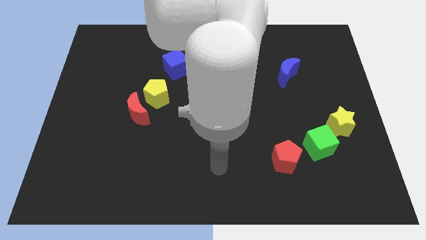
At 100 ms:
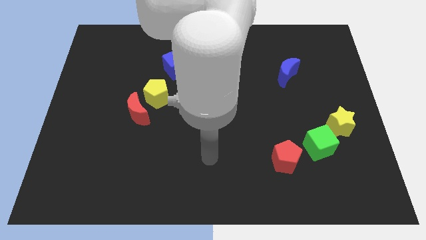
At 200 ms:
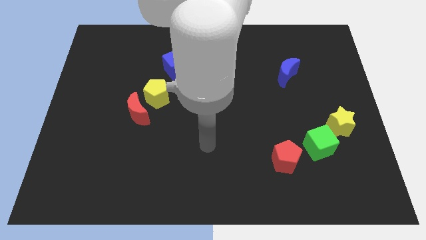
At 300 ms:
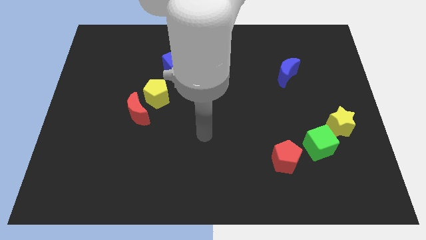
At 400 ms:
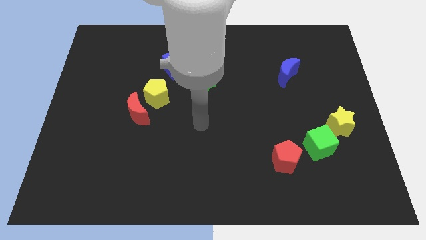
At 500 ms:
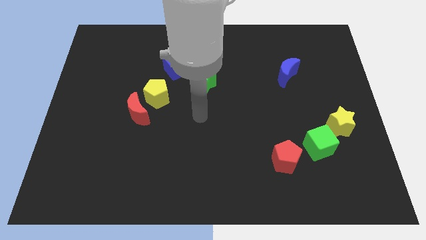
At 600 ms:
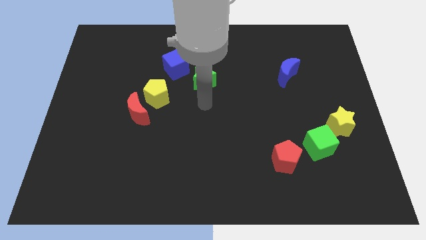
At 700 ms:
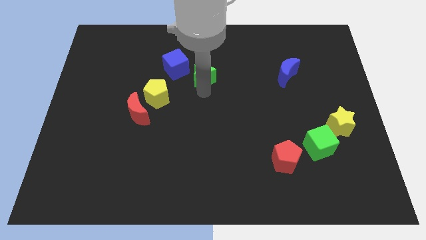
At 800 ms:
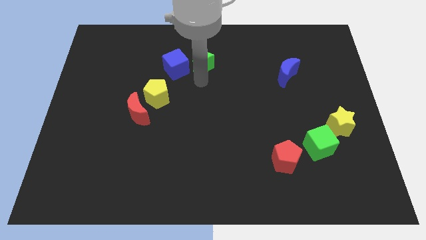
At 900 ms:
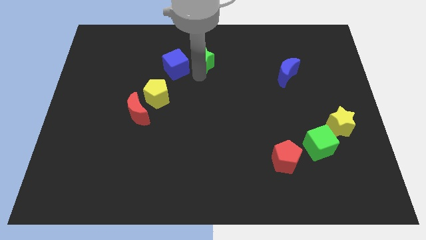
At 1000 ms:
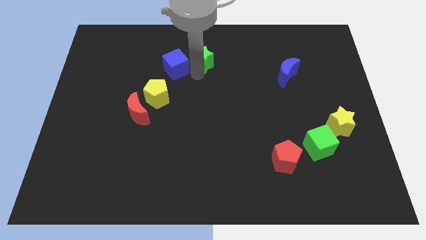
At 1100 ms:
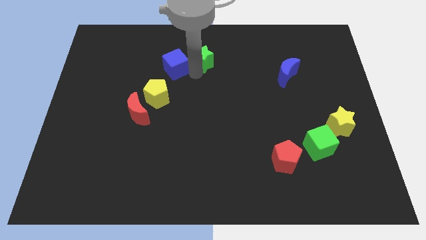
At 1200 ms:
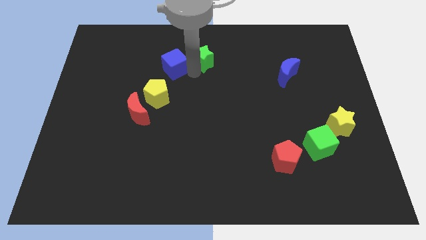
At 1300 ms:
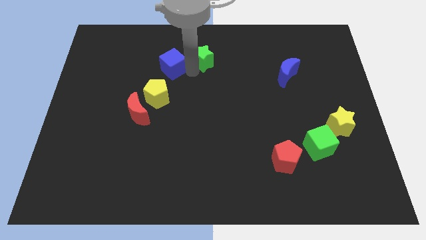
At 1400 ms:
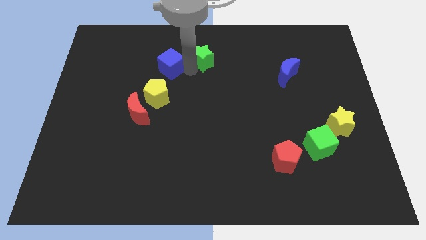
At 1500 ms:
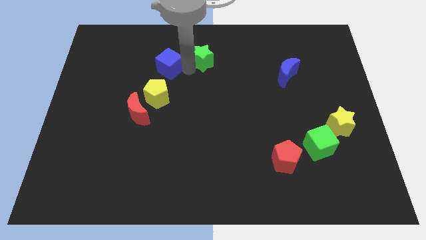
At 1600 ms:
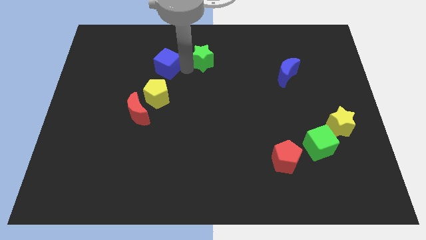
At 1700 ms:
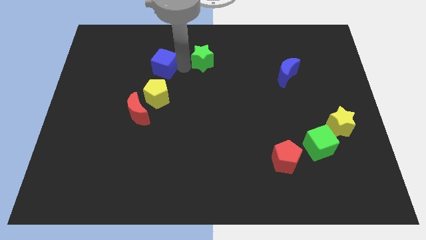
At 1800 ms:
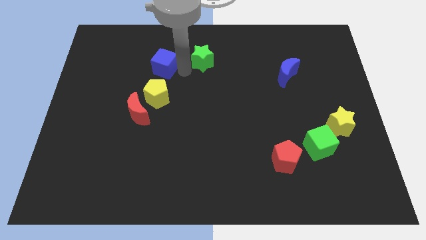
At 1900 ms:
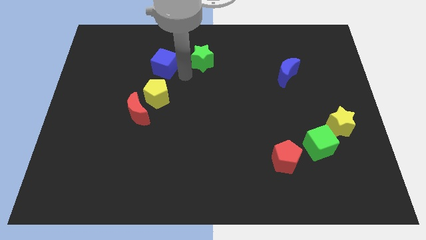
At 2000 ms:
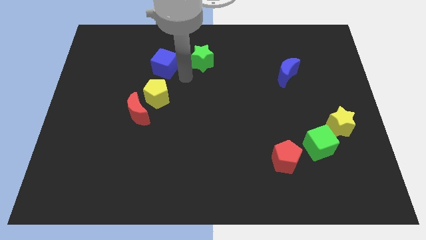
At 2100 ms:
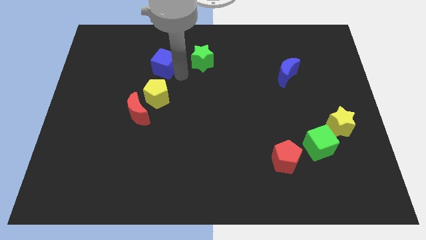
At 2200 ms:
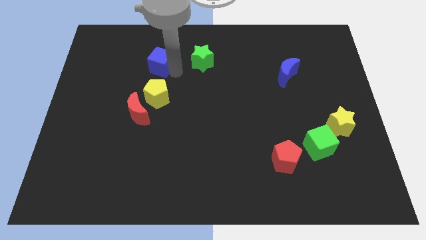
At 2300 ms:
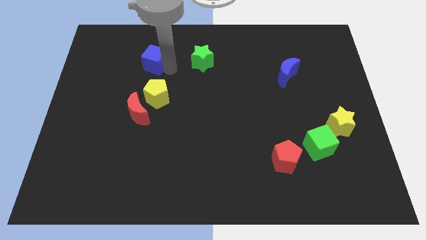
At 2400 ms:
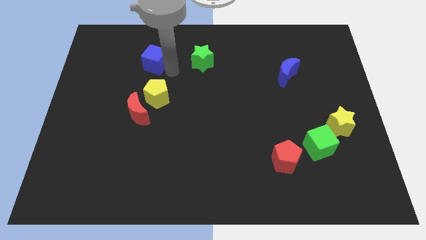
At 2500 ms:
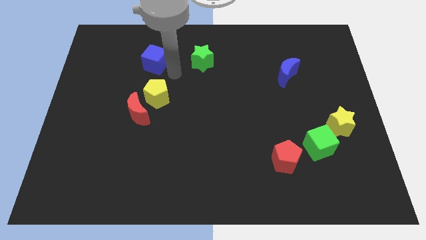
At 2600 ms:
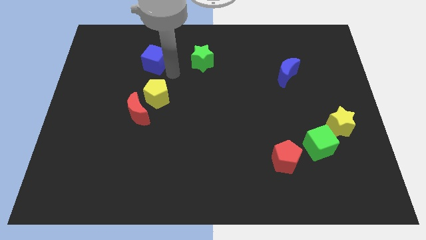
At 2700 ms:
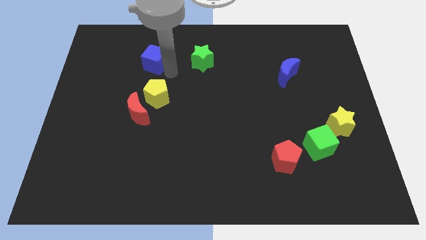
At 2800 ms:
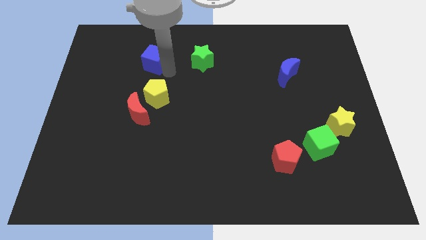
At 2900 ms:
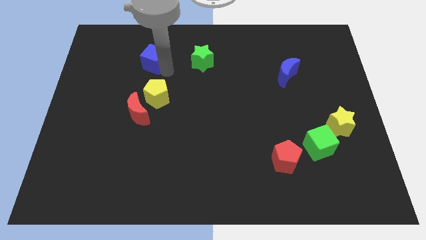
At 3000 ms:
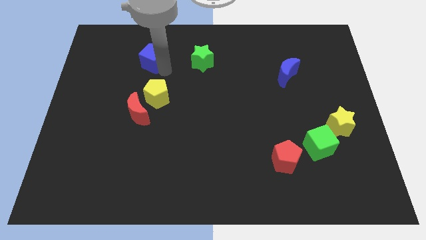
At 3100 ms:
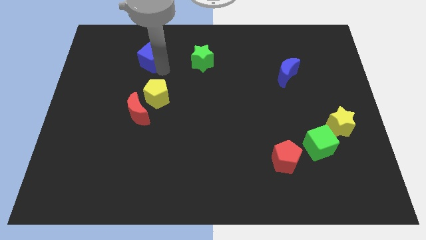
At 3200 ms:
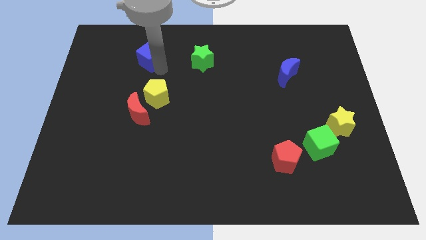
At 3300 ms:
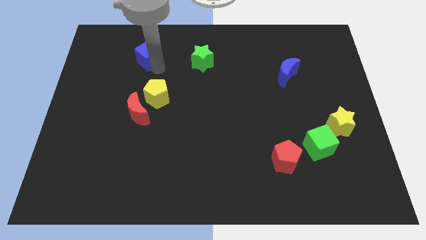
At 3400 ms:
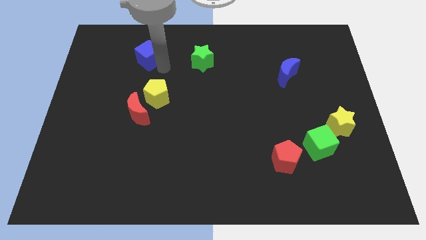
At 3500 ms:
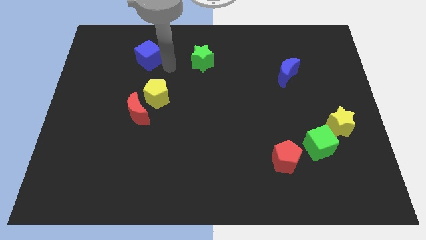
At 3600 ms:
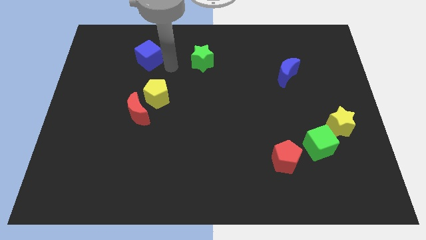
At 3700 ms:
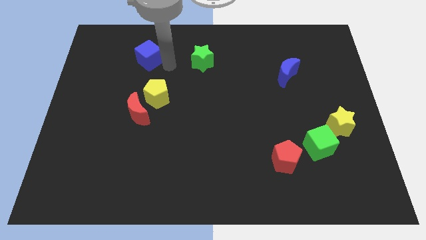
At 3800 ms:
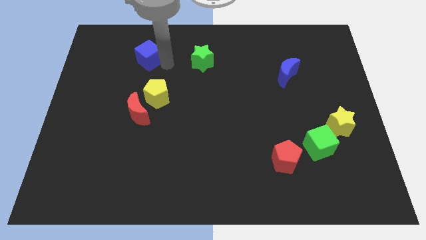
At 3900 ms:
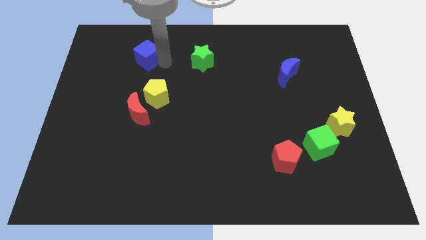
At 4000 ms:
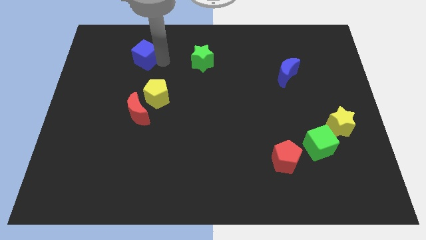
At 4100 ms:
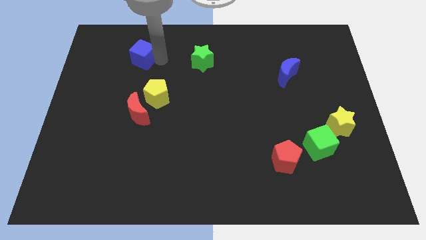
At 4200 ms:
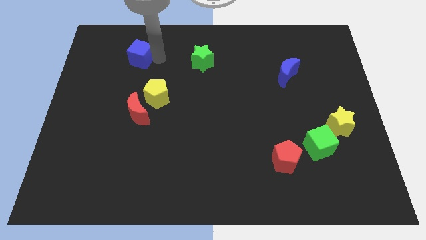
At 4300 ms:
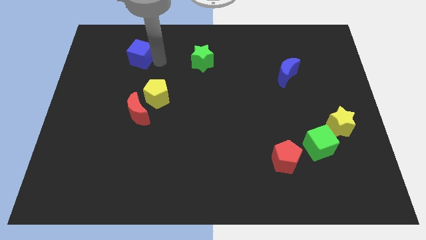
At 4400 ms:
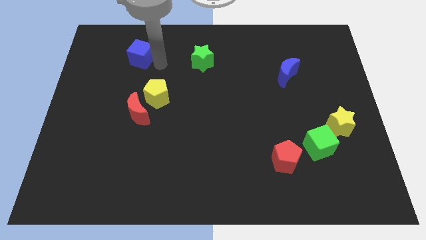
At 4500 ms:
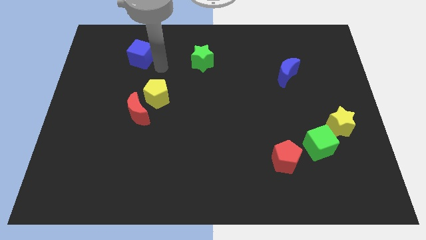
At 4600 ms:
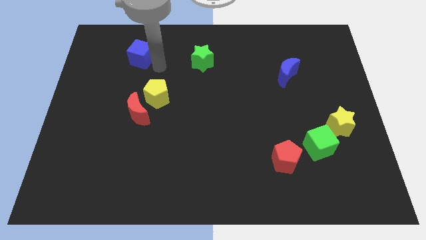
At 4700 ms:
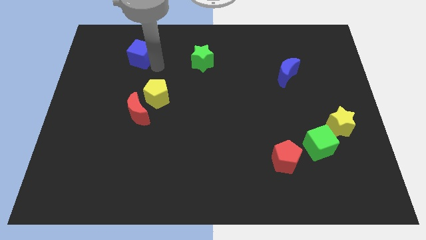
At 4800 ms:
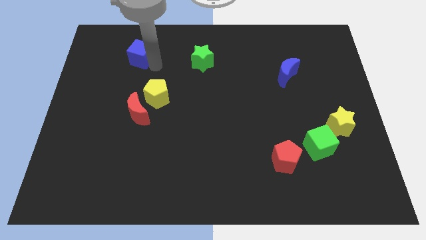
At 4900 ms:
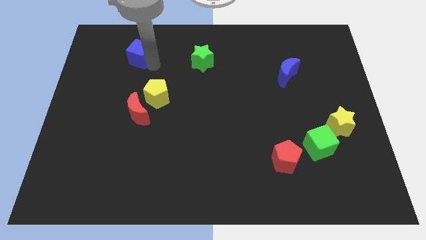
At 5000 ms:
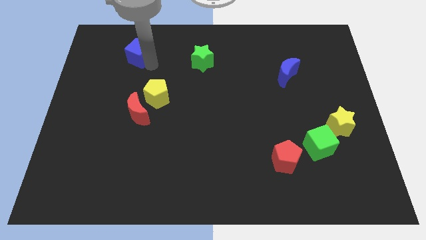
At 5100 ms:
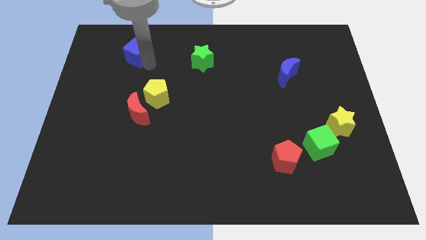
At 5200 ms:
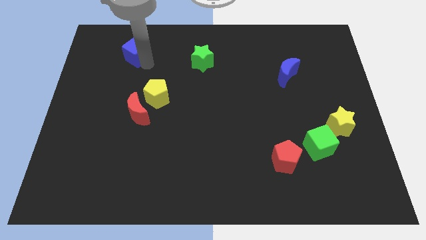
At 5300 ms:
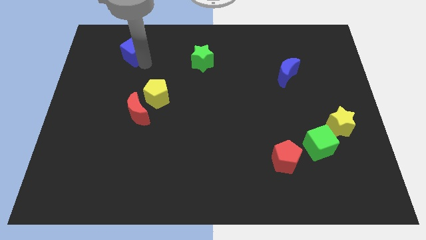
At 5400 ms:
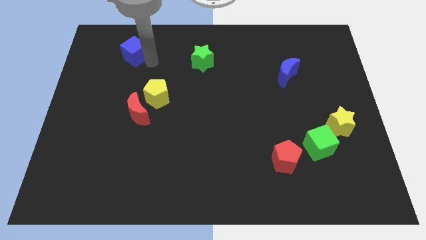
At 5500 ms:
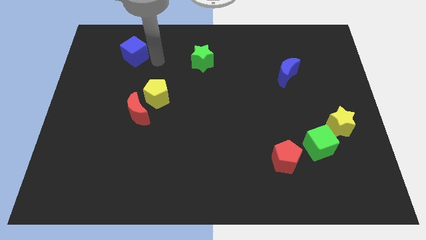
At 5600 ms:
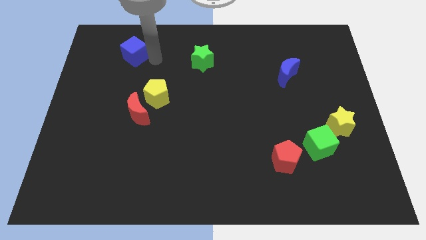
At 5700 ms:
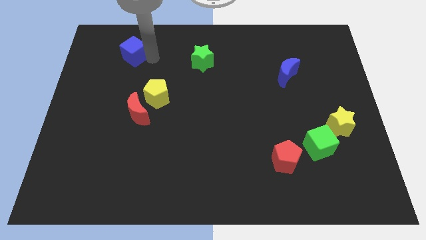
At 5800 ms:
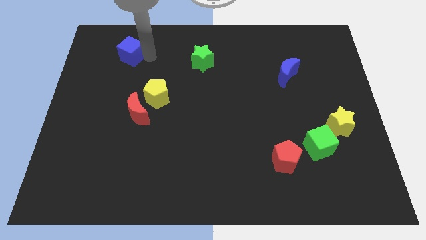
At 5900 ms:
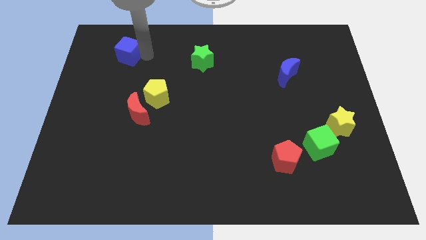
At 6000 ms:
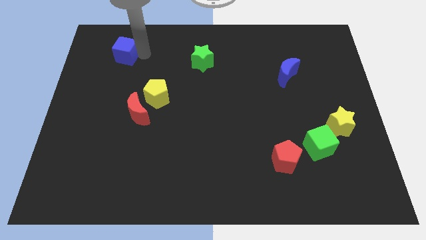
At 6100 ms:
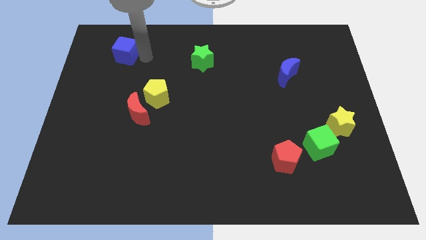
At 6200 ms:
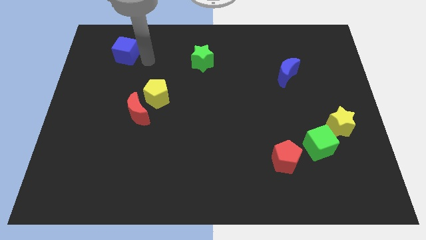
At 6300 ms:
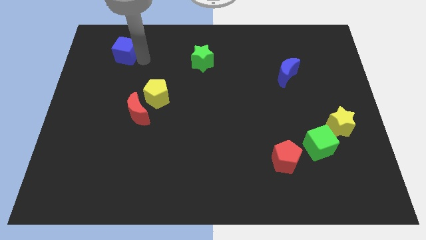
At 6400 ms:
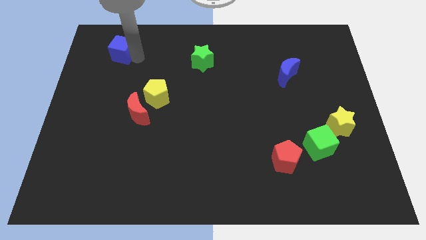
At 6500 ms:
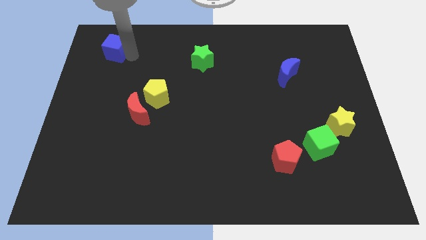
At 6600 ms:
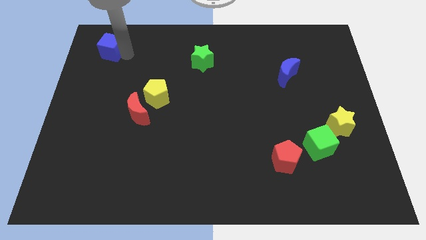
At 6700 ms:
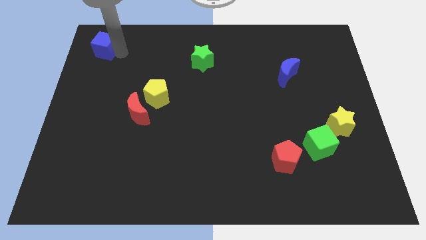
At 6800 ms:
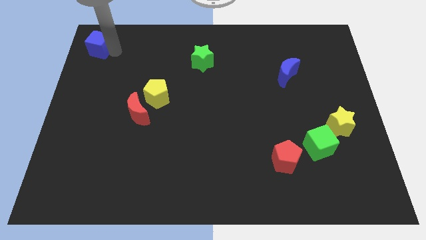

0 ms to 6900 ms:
slide the blue cube to the upper left corner
